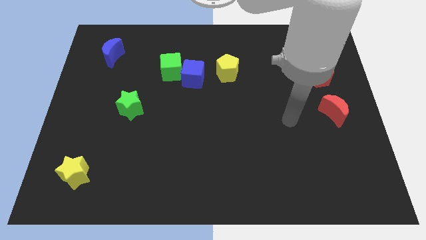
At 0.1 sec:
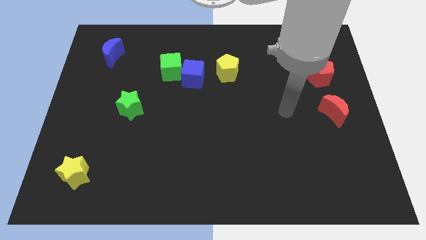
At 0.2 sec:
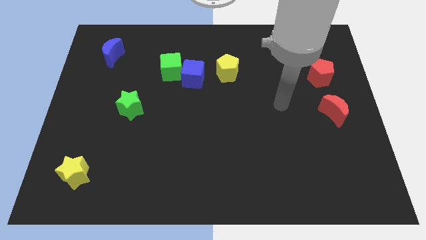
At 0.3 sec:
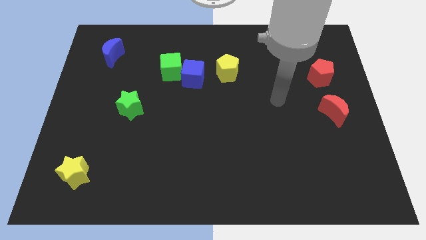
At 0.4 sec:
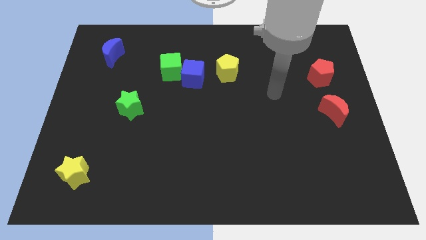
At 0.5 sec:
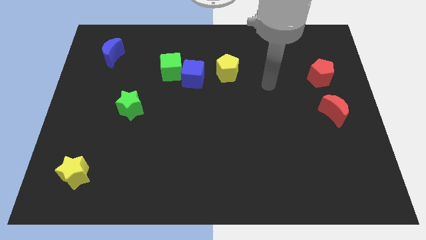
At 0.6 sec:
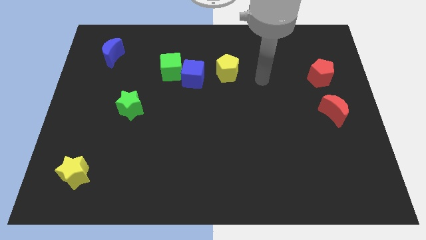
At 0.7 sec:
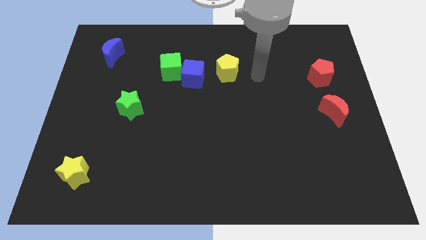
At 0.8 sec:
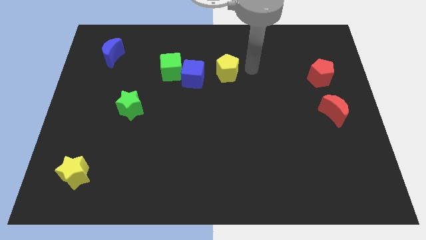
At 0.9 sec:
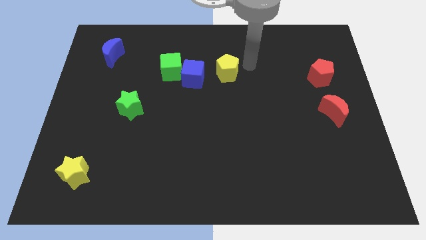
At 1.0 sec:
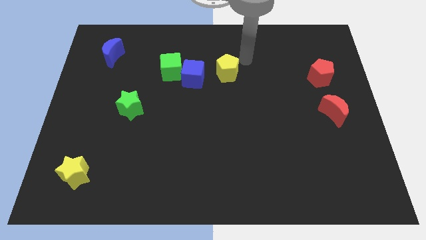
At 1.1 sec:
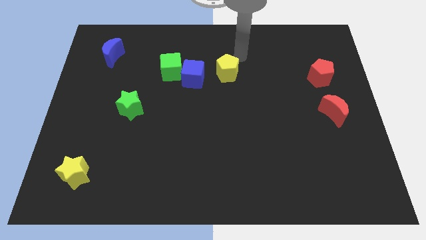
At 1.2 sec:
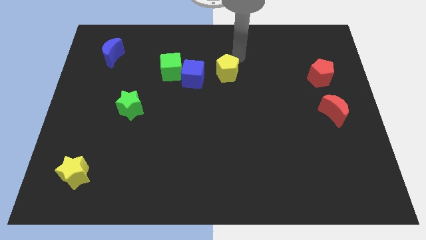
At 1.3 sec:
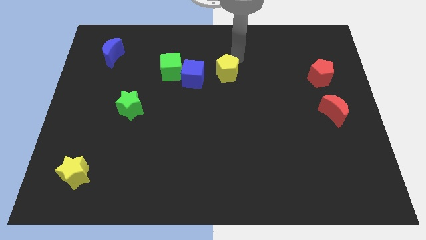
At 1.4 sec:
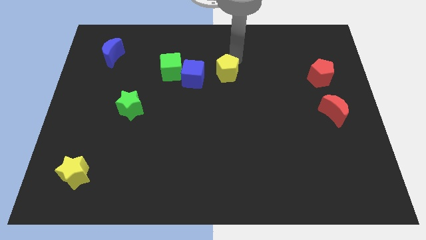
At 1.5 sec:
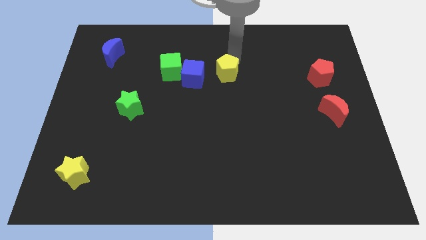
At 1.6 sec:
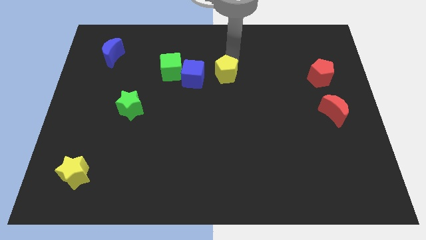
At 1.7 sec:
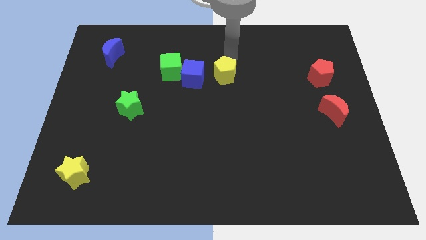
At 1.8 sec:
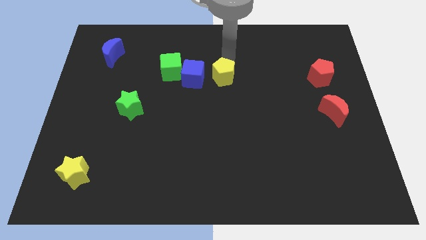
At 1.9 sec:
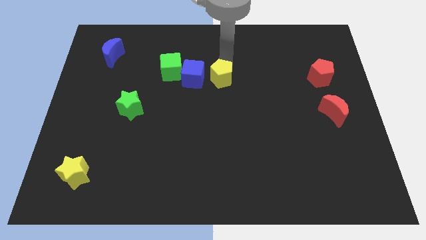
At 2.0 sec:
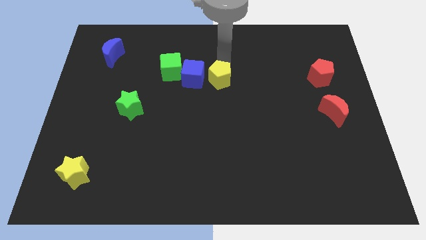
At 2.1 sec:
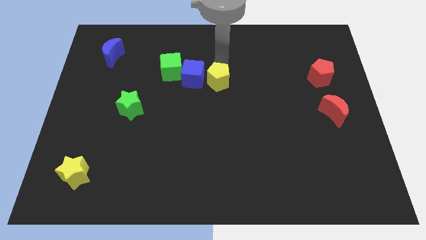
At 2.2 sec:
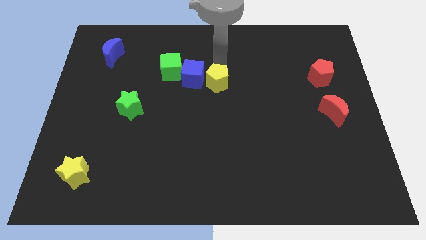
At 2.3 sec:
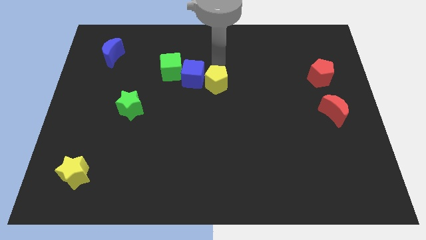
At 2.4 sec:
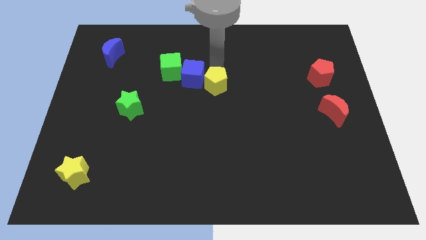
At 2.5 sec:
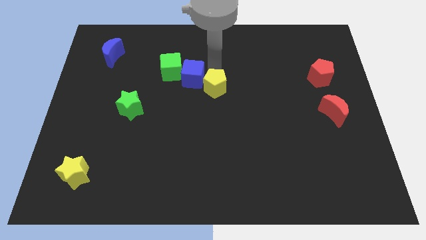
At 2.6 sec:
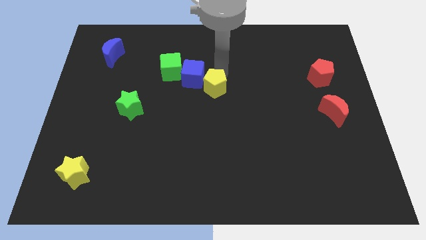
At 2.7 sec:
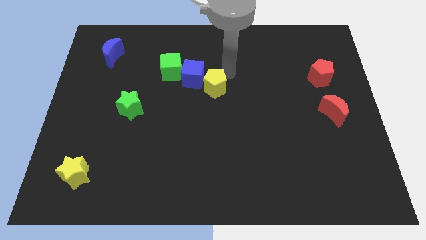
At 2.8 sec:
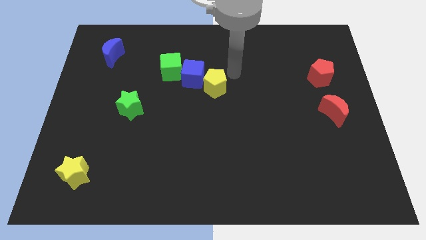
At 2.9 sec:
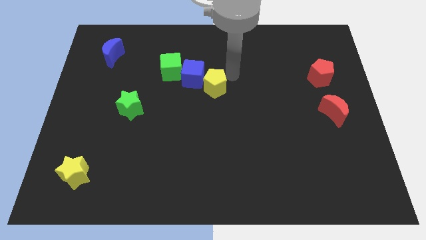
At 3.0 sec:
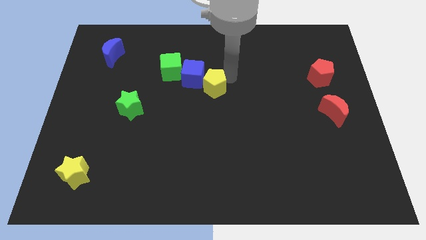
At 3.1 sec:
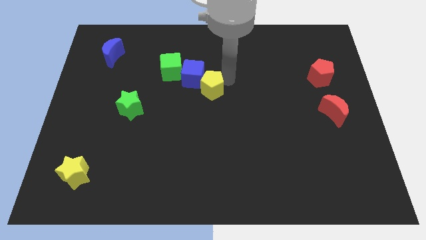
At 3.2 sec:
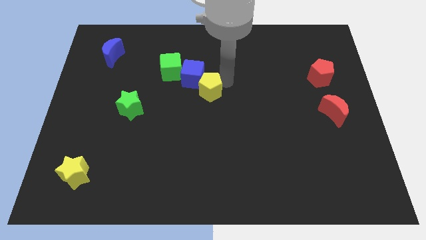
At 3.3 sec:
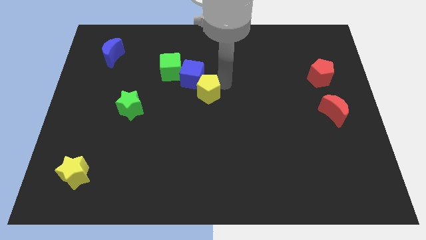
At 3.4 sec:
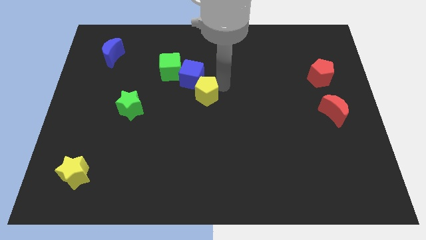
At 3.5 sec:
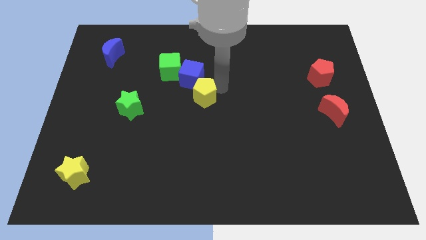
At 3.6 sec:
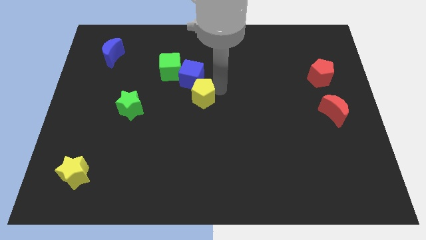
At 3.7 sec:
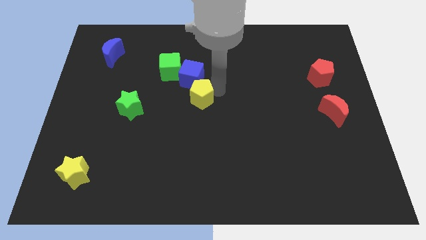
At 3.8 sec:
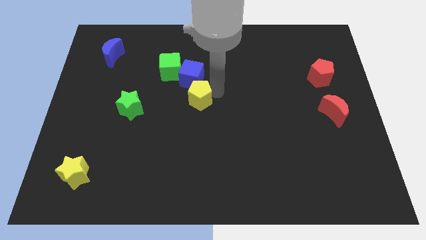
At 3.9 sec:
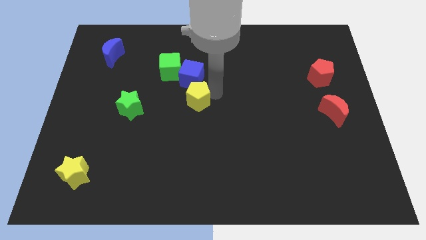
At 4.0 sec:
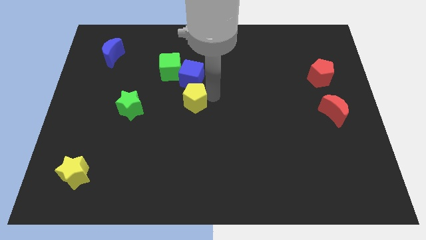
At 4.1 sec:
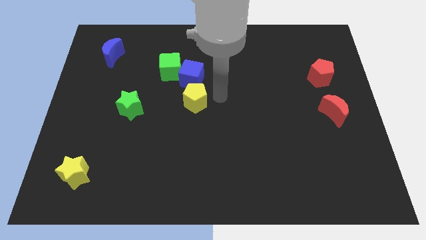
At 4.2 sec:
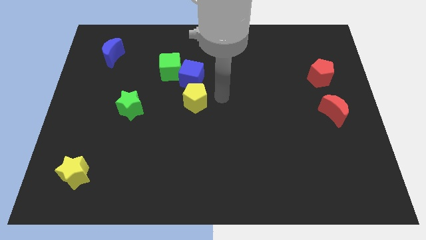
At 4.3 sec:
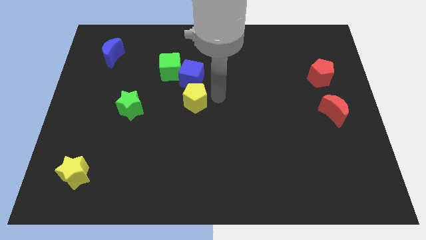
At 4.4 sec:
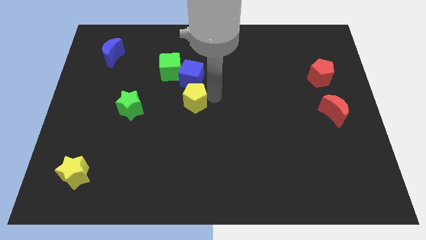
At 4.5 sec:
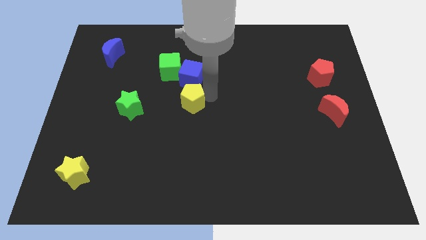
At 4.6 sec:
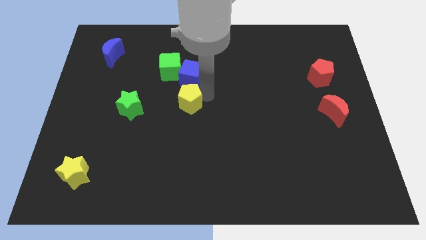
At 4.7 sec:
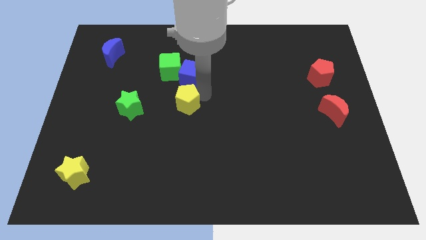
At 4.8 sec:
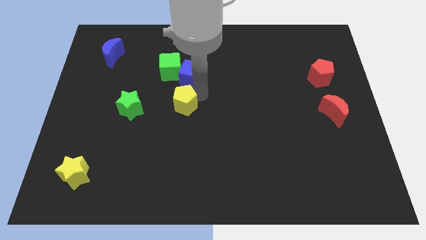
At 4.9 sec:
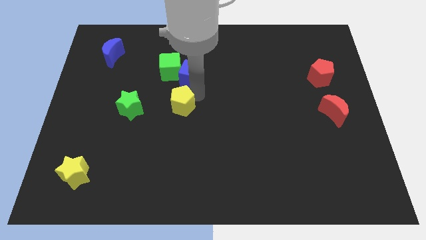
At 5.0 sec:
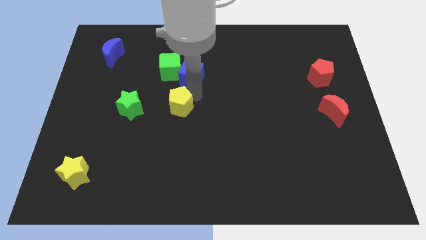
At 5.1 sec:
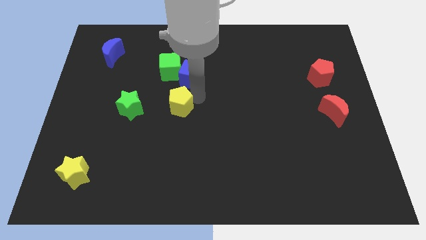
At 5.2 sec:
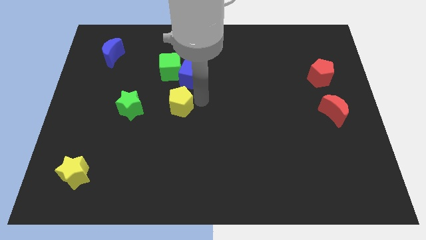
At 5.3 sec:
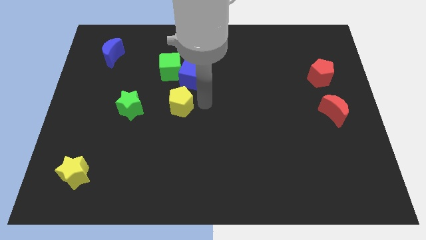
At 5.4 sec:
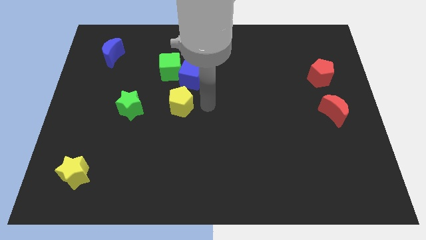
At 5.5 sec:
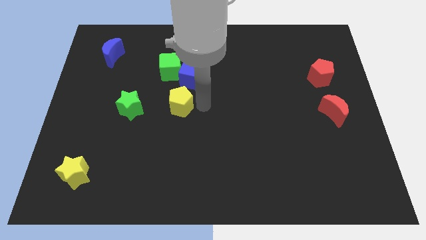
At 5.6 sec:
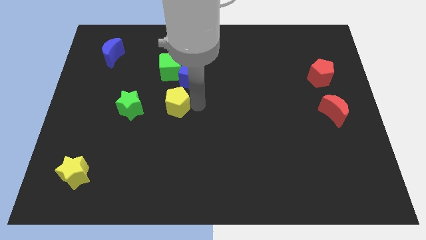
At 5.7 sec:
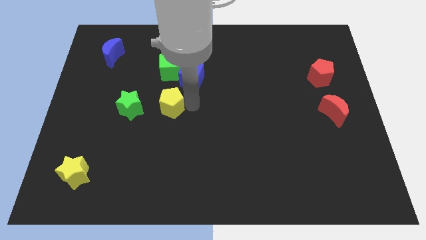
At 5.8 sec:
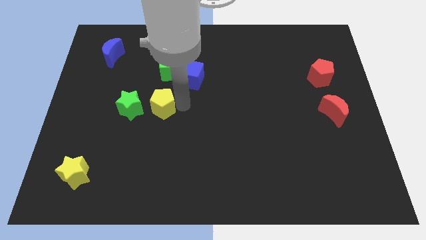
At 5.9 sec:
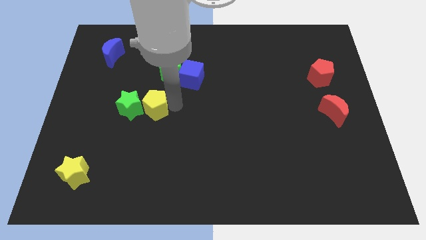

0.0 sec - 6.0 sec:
put the yellow pentagon next to the green star

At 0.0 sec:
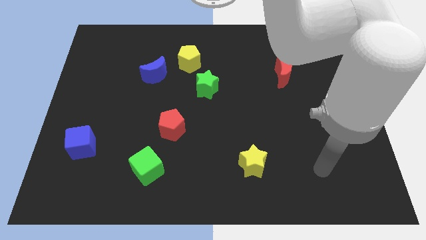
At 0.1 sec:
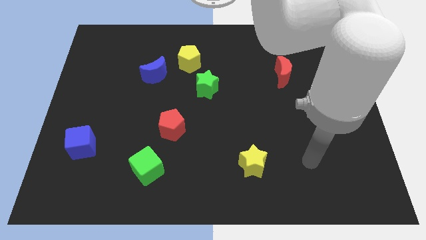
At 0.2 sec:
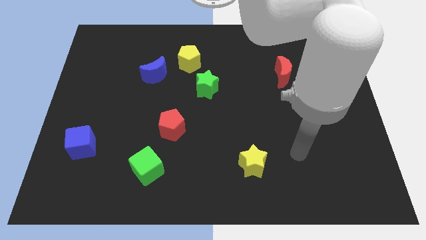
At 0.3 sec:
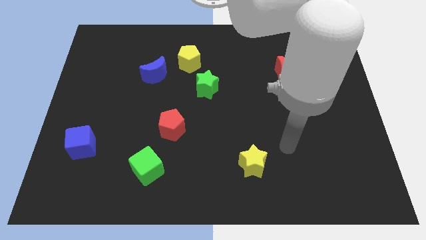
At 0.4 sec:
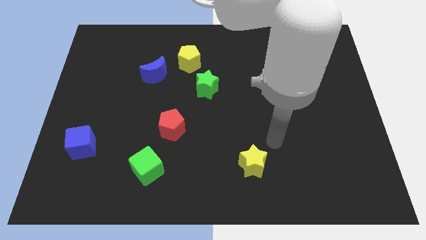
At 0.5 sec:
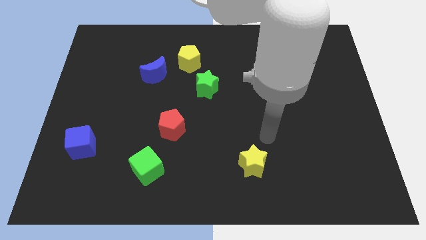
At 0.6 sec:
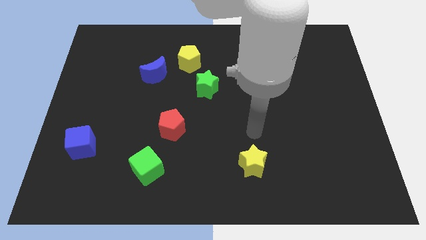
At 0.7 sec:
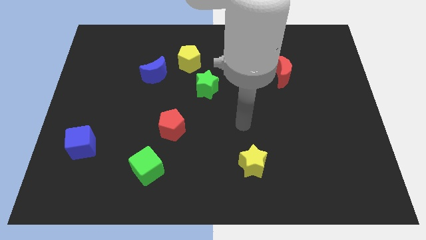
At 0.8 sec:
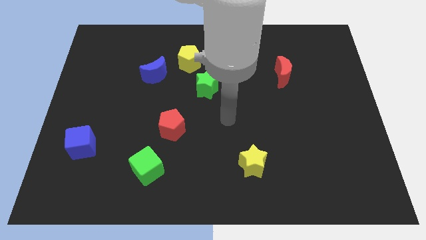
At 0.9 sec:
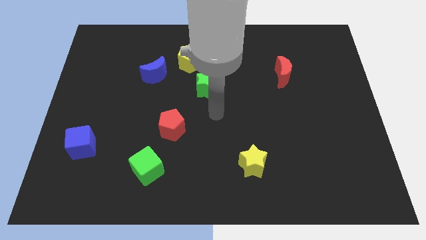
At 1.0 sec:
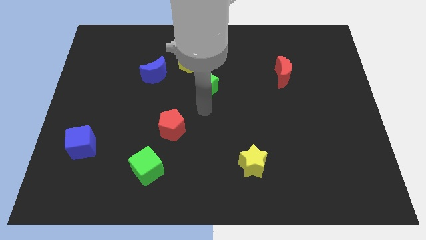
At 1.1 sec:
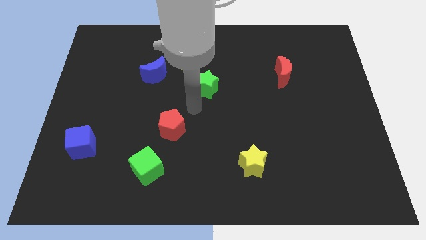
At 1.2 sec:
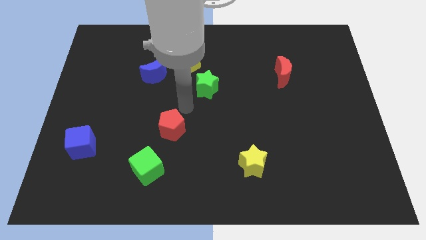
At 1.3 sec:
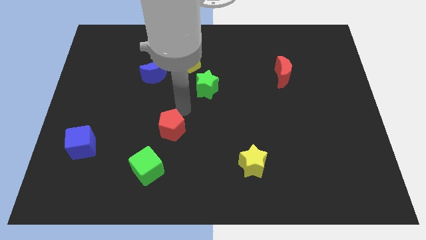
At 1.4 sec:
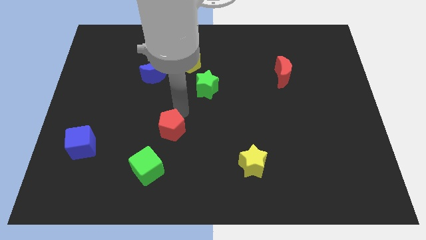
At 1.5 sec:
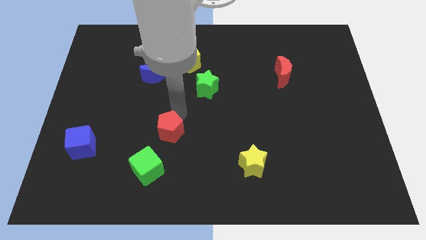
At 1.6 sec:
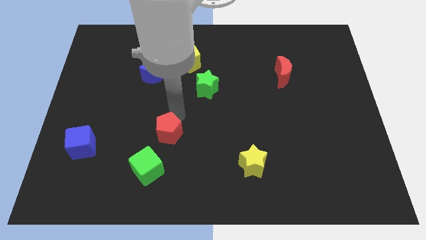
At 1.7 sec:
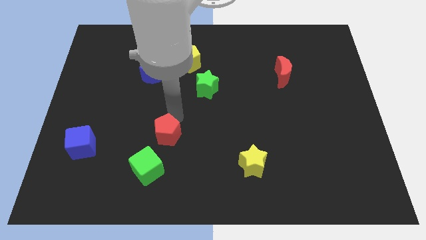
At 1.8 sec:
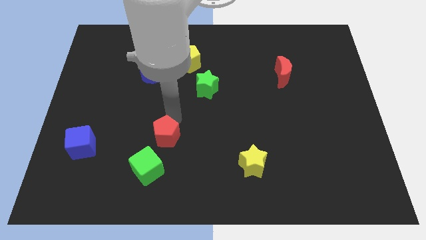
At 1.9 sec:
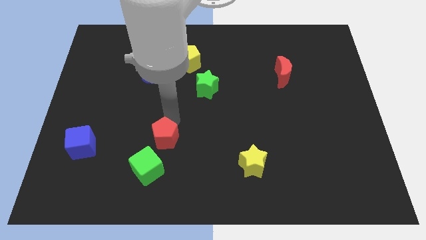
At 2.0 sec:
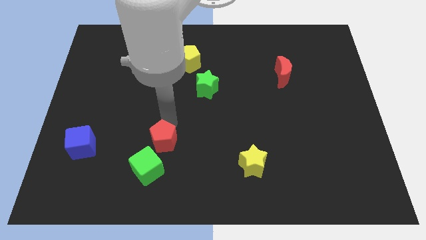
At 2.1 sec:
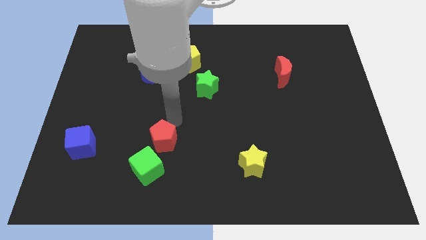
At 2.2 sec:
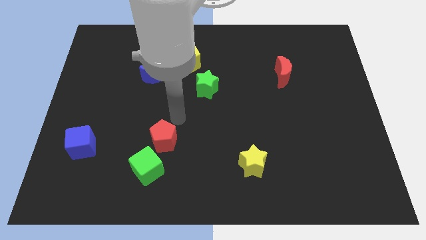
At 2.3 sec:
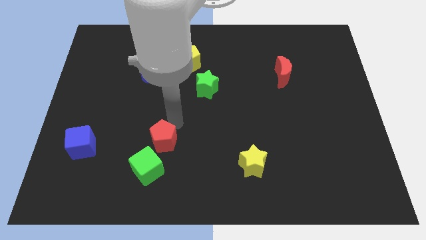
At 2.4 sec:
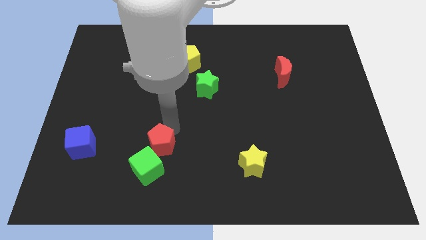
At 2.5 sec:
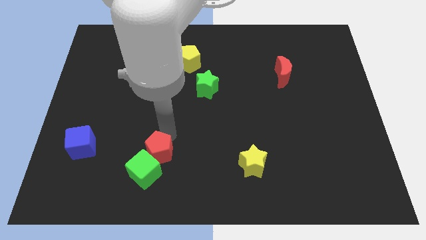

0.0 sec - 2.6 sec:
move the red pentagon close to the green cube
